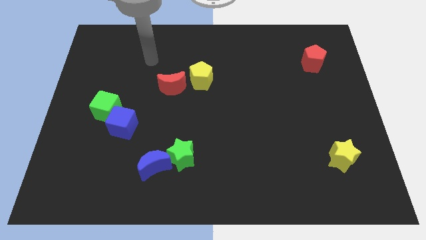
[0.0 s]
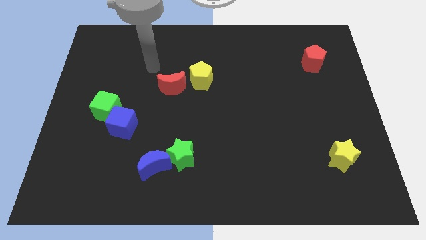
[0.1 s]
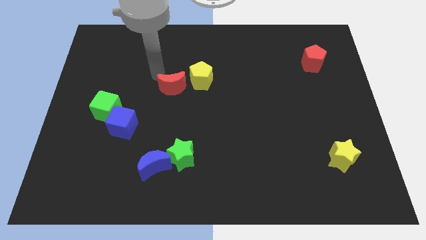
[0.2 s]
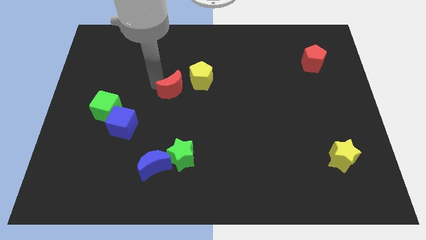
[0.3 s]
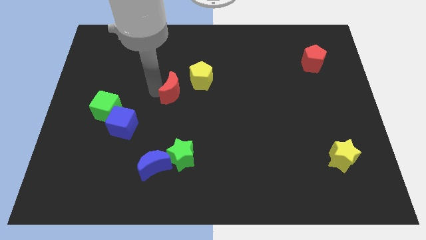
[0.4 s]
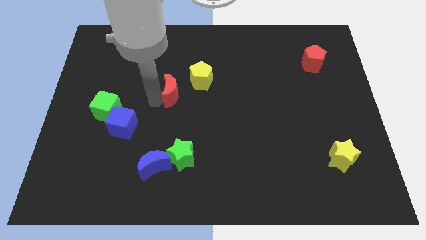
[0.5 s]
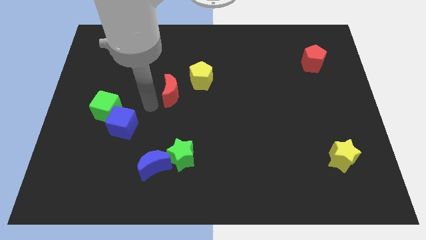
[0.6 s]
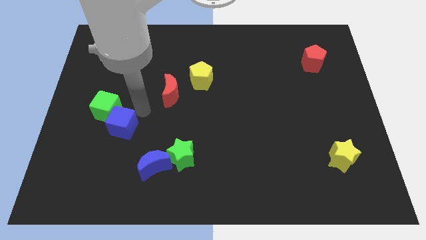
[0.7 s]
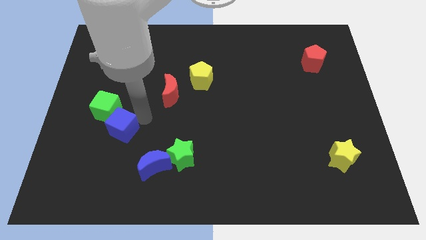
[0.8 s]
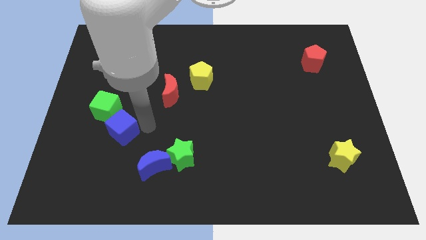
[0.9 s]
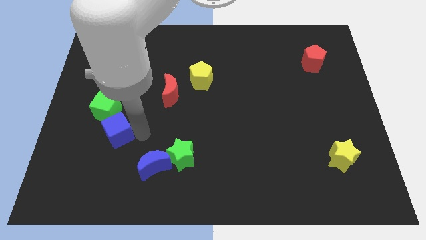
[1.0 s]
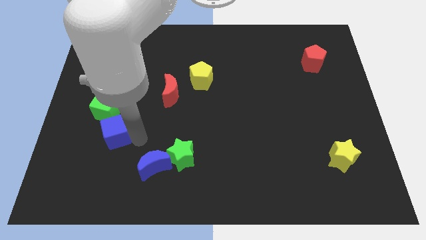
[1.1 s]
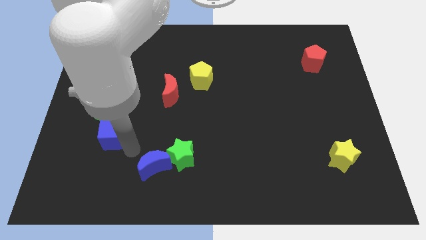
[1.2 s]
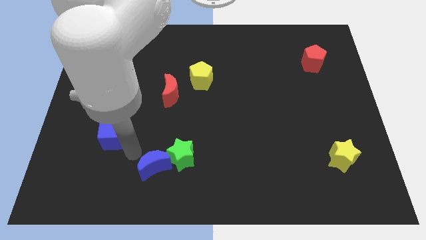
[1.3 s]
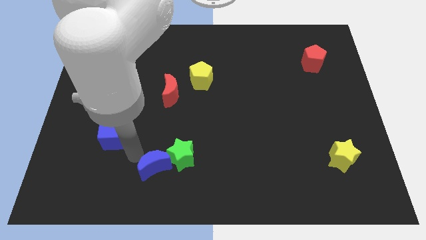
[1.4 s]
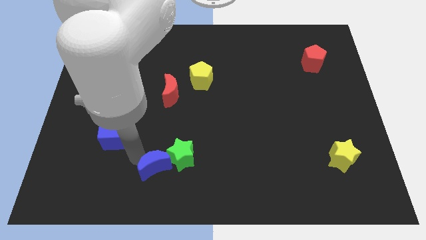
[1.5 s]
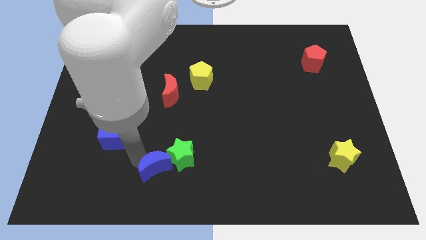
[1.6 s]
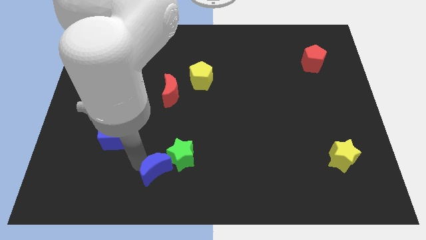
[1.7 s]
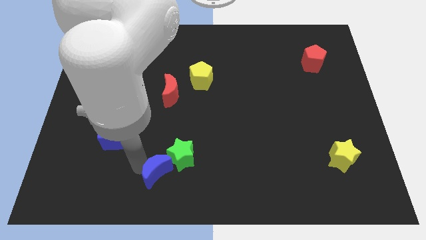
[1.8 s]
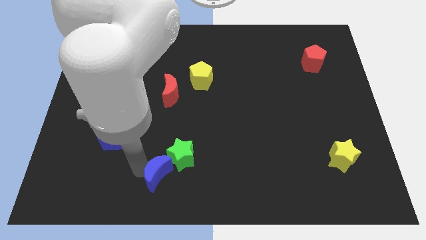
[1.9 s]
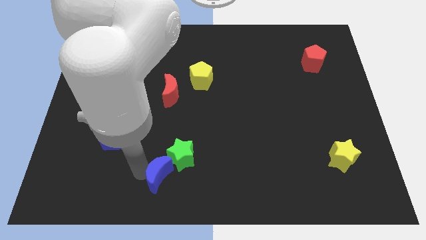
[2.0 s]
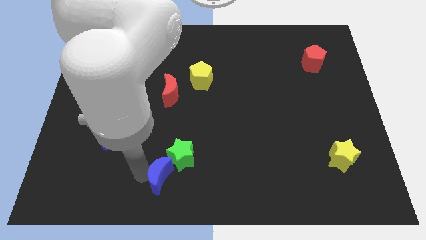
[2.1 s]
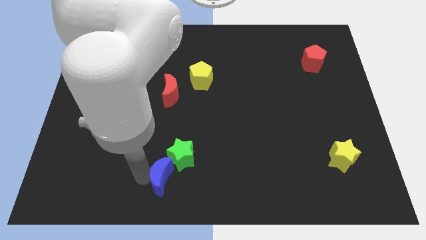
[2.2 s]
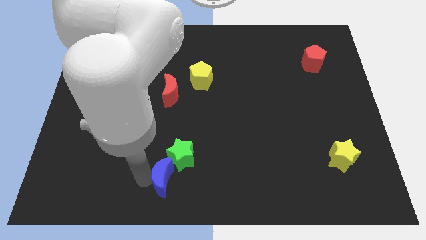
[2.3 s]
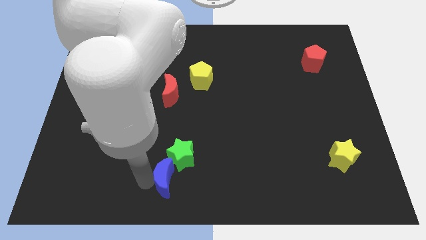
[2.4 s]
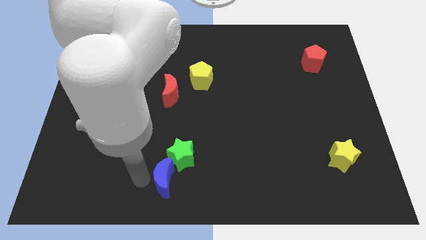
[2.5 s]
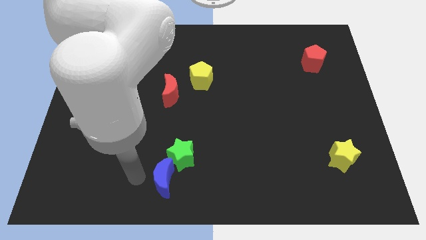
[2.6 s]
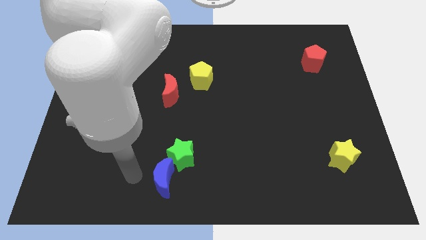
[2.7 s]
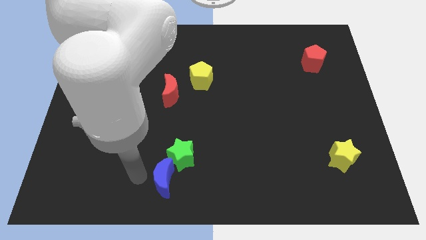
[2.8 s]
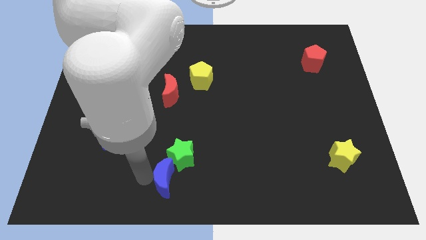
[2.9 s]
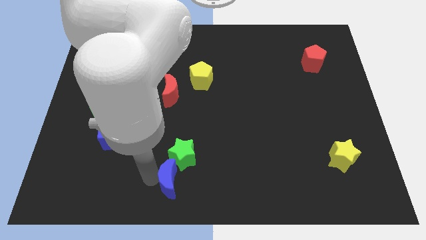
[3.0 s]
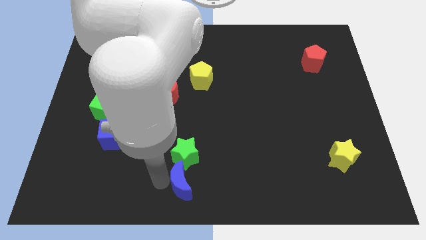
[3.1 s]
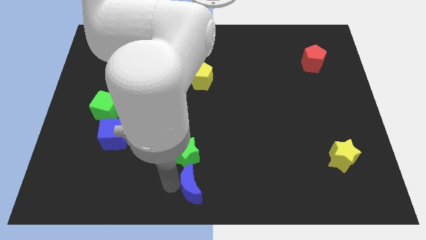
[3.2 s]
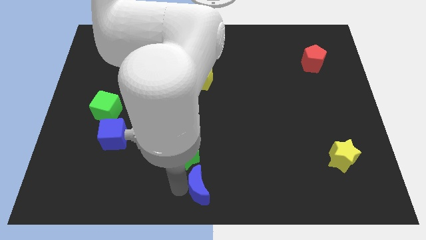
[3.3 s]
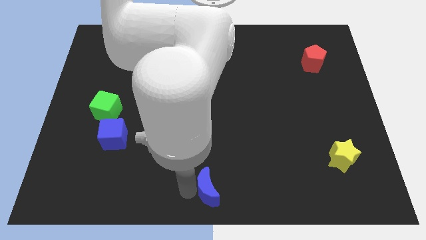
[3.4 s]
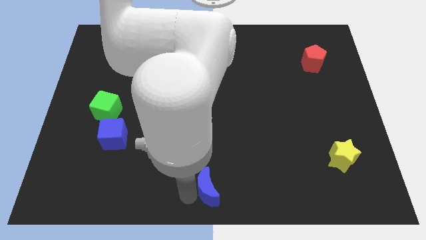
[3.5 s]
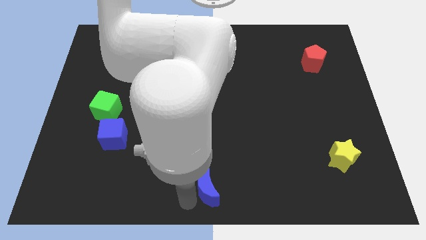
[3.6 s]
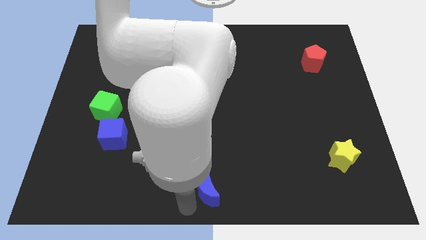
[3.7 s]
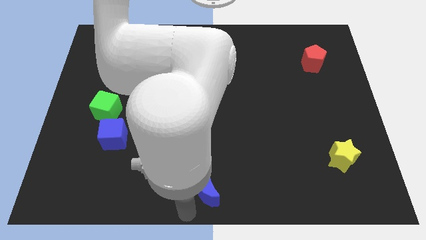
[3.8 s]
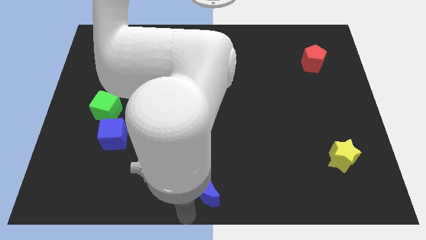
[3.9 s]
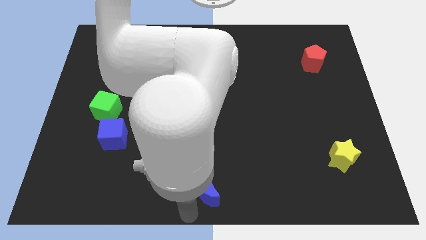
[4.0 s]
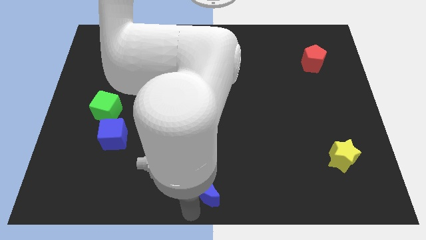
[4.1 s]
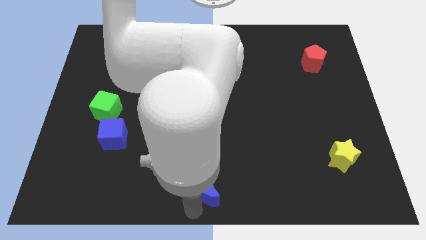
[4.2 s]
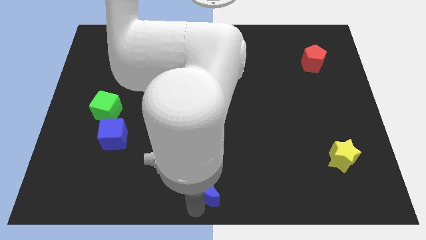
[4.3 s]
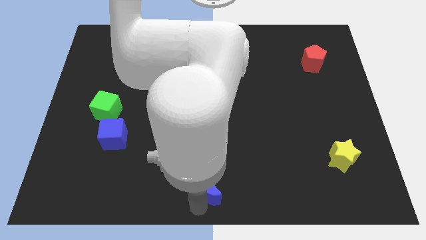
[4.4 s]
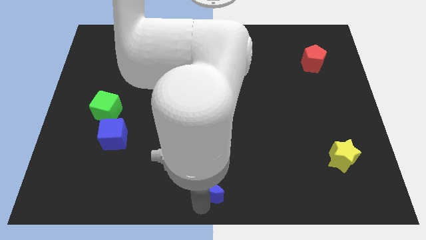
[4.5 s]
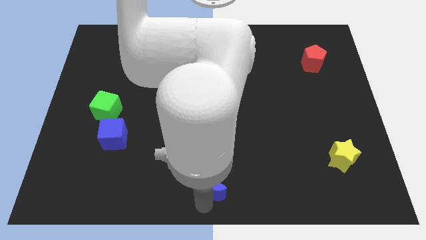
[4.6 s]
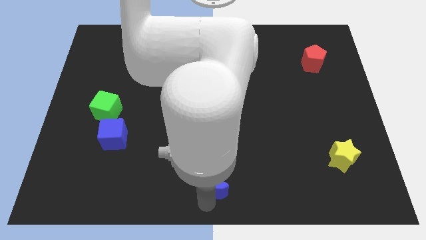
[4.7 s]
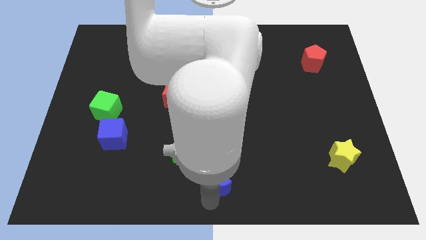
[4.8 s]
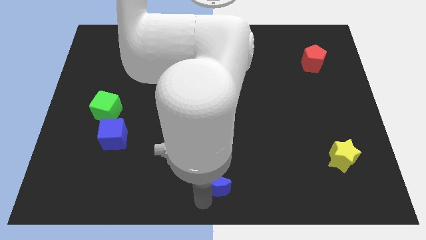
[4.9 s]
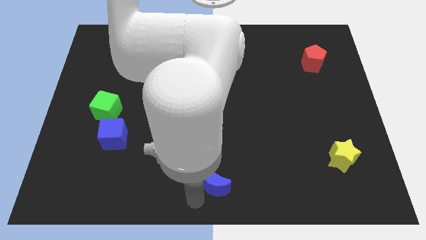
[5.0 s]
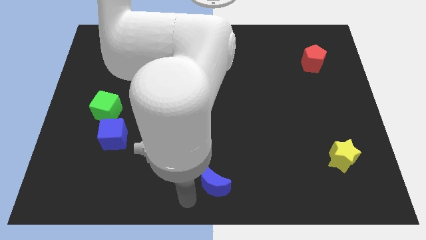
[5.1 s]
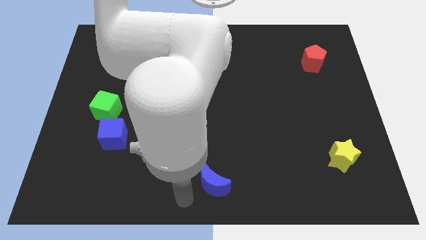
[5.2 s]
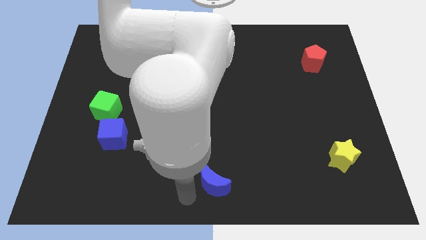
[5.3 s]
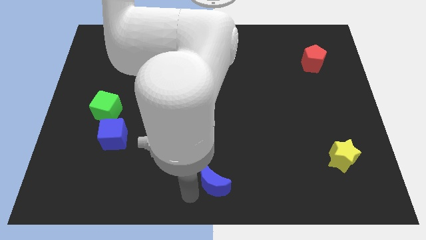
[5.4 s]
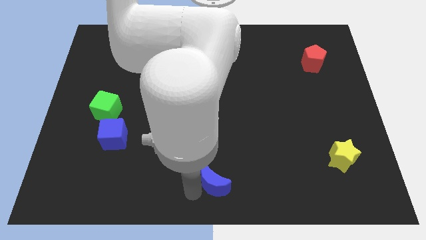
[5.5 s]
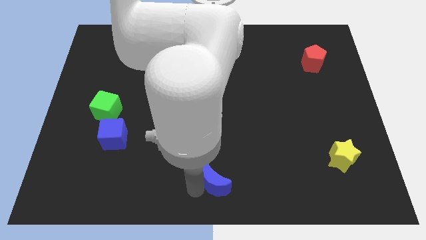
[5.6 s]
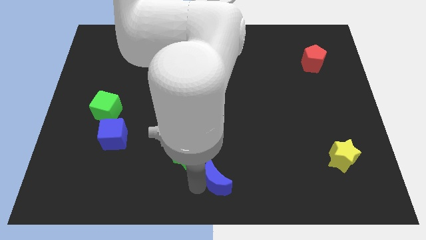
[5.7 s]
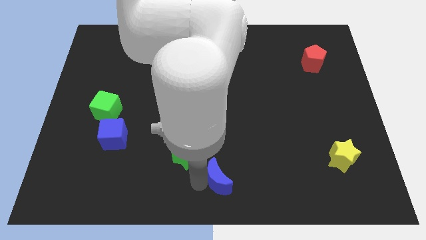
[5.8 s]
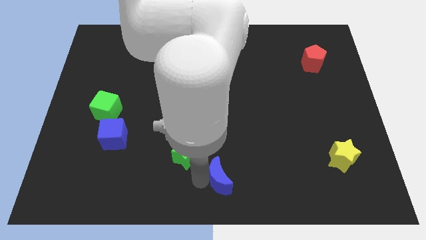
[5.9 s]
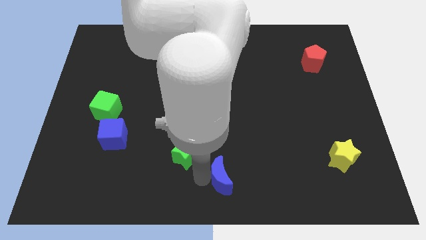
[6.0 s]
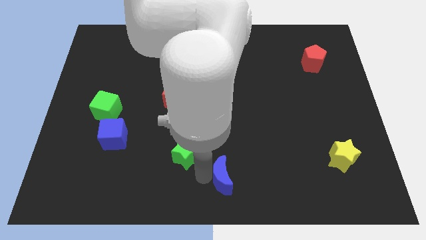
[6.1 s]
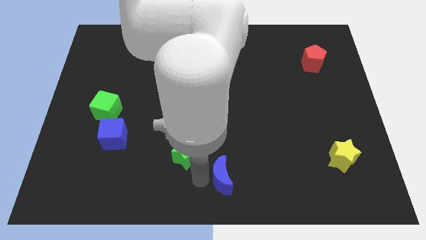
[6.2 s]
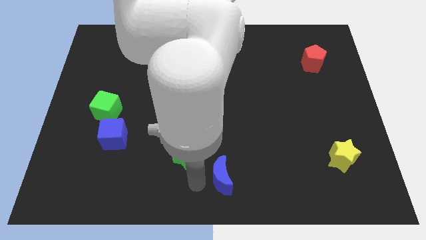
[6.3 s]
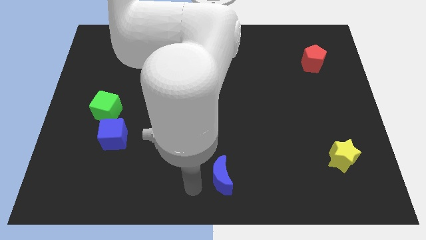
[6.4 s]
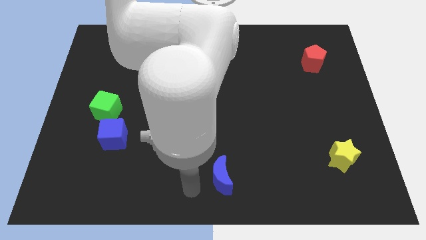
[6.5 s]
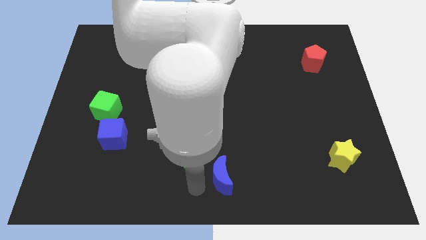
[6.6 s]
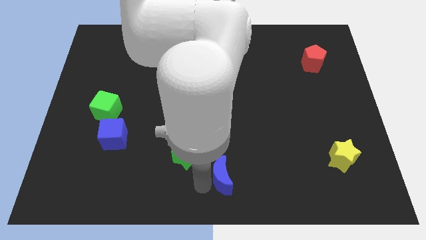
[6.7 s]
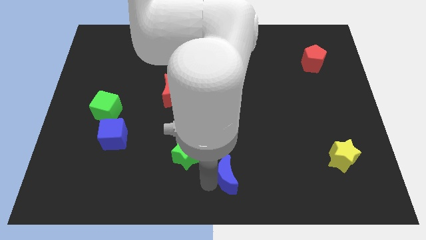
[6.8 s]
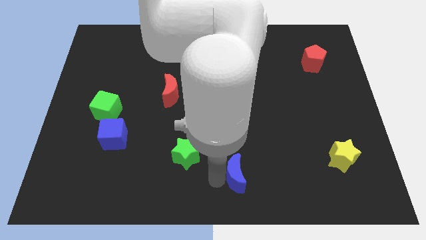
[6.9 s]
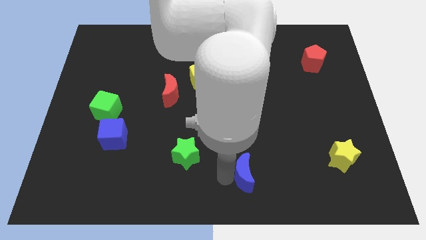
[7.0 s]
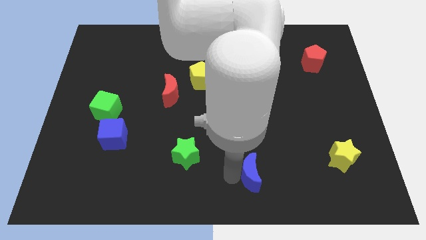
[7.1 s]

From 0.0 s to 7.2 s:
push the blue moon right

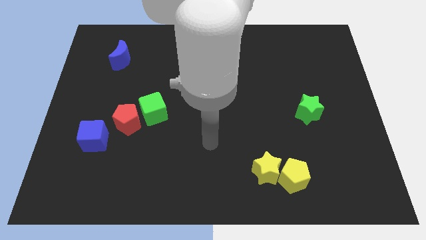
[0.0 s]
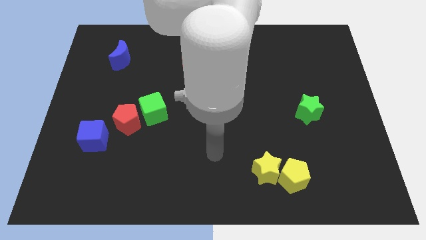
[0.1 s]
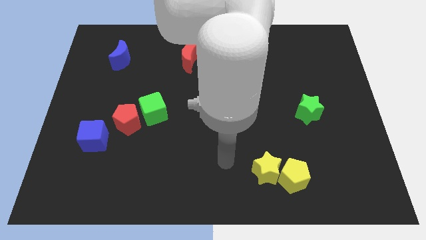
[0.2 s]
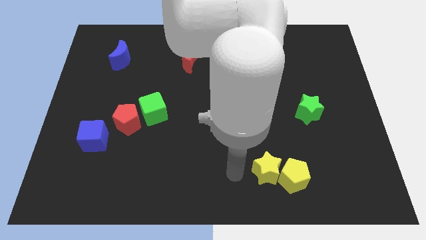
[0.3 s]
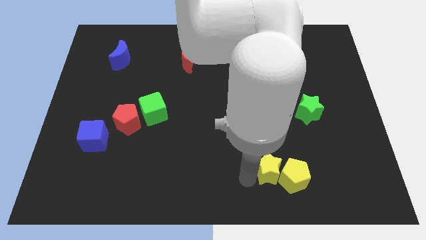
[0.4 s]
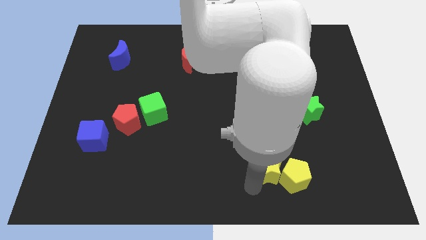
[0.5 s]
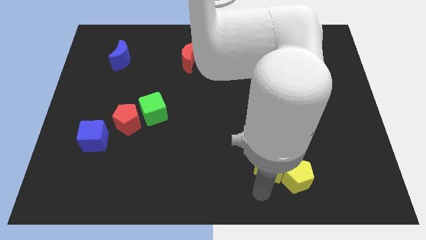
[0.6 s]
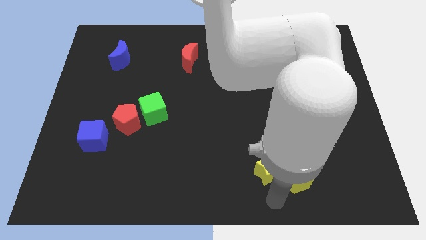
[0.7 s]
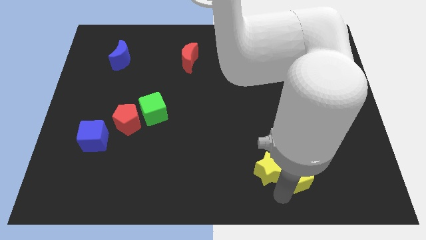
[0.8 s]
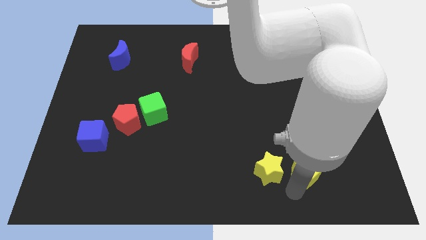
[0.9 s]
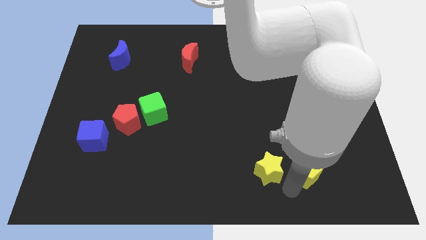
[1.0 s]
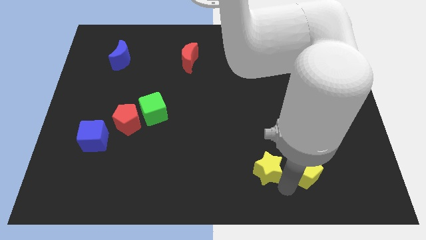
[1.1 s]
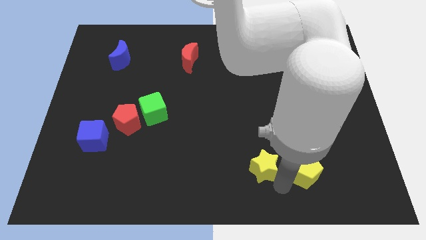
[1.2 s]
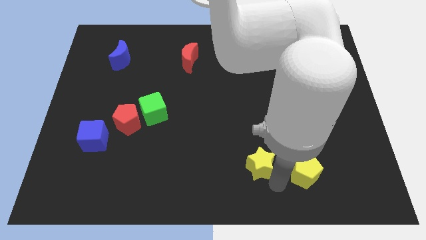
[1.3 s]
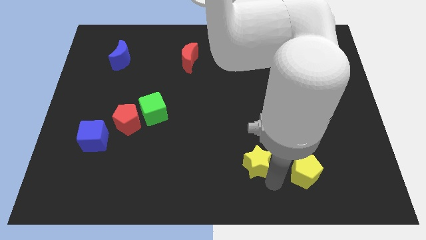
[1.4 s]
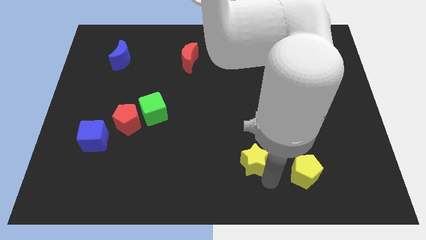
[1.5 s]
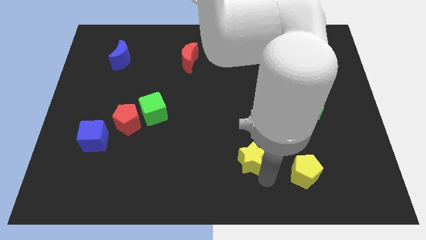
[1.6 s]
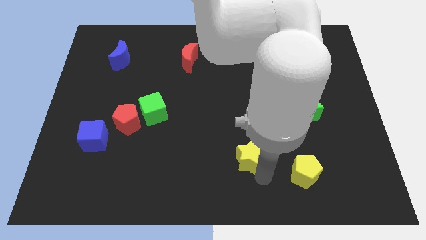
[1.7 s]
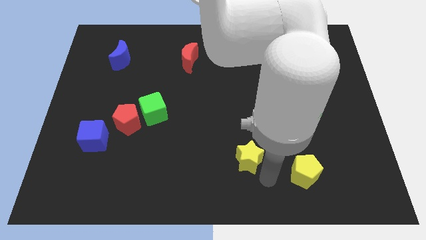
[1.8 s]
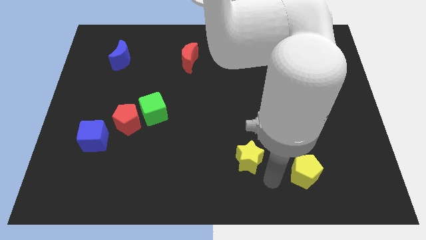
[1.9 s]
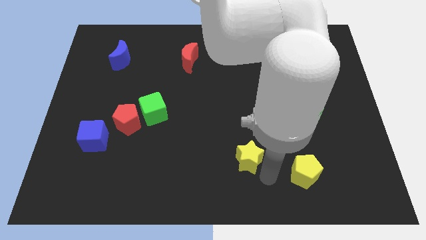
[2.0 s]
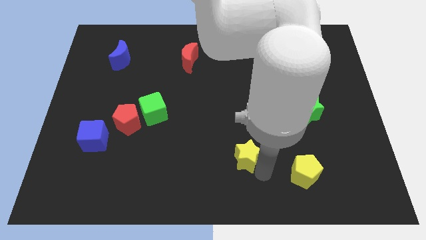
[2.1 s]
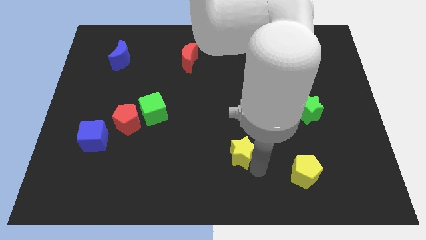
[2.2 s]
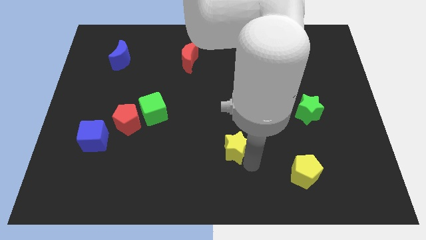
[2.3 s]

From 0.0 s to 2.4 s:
slightly push the yellow star up and left
